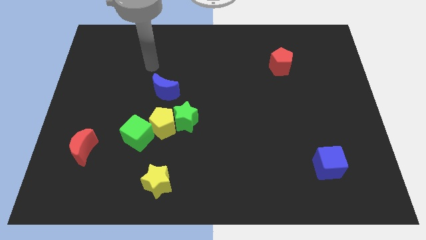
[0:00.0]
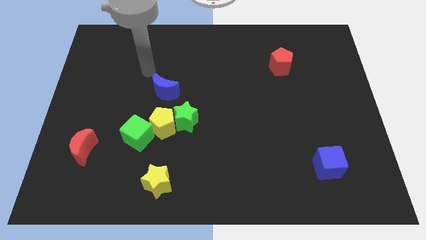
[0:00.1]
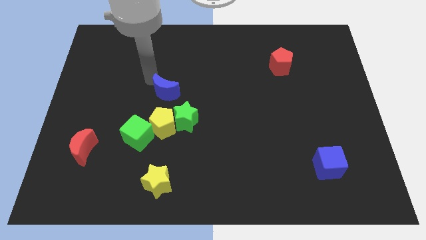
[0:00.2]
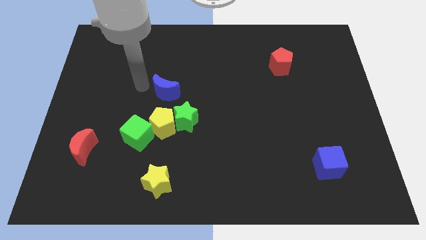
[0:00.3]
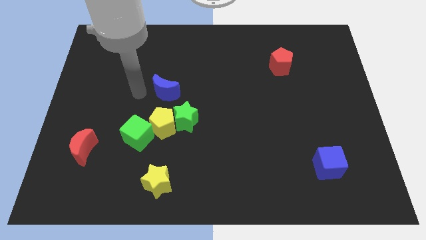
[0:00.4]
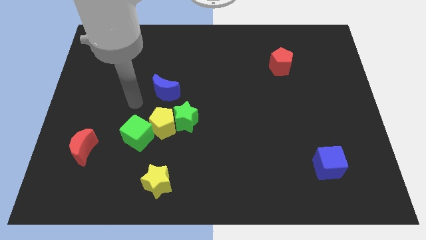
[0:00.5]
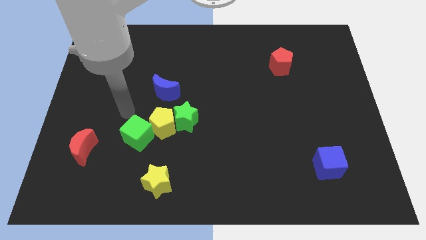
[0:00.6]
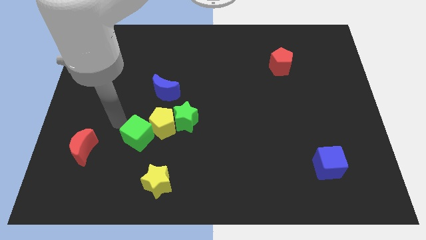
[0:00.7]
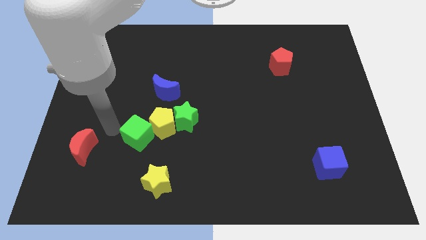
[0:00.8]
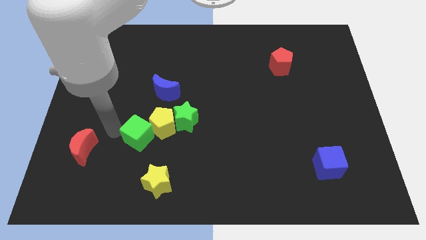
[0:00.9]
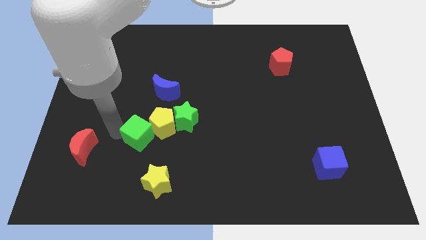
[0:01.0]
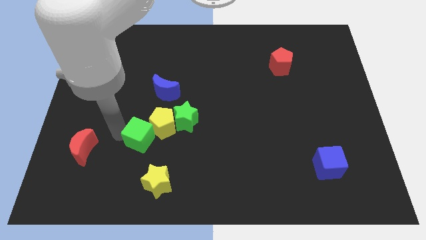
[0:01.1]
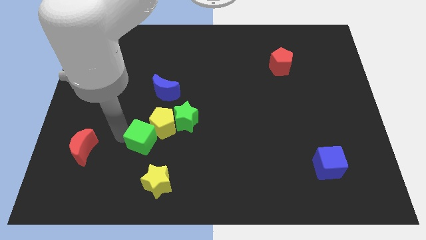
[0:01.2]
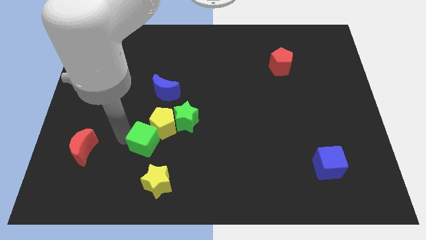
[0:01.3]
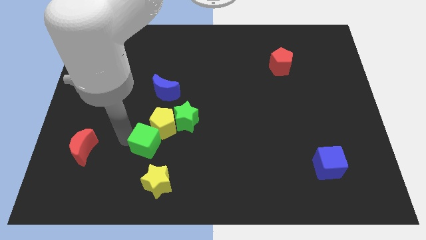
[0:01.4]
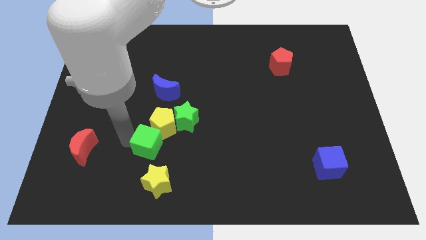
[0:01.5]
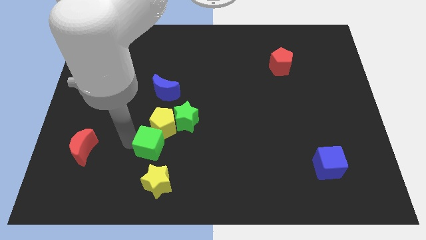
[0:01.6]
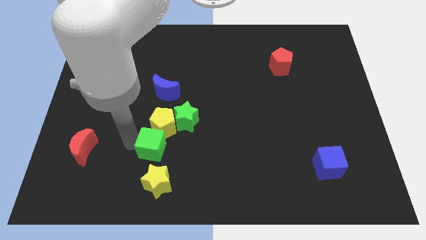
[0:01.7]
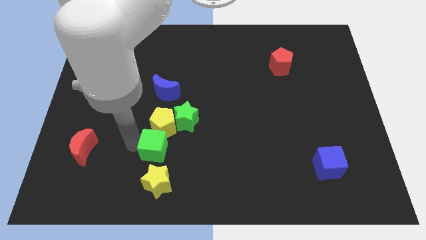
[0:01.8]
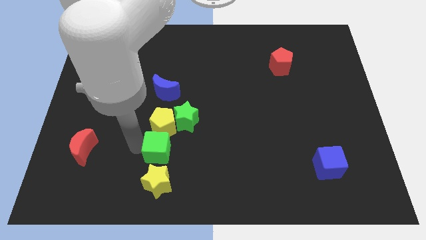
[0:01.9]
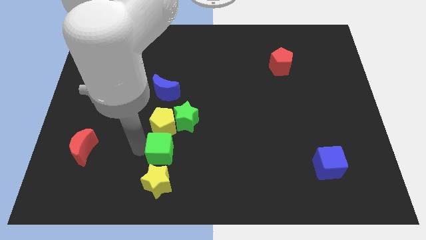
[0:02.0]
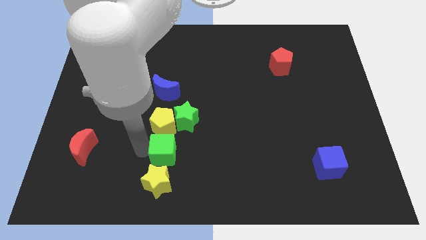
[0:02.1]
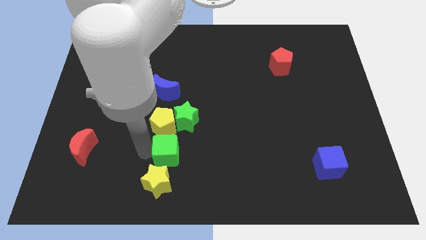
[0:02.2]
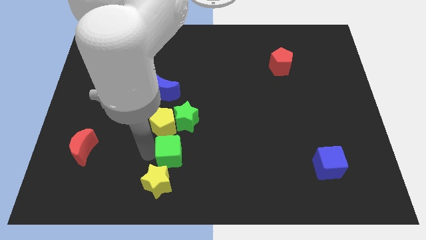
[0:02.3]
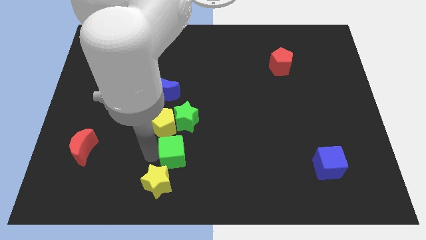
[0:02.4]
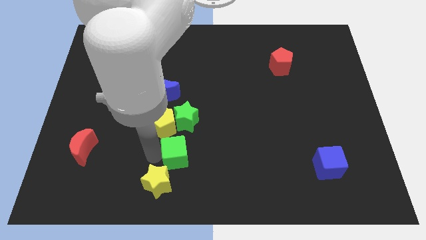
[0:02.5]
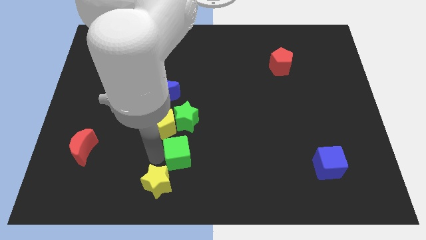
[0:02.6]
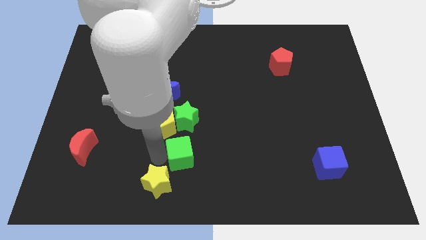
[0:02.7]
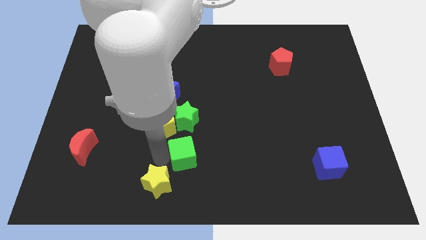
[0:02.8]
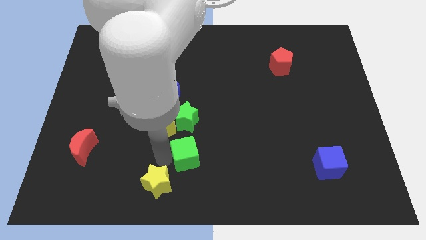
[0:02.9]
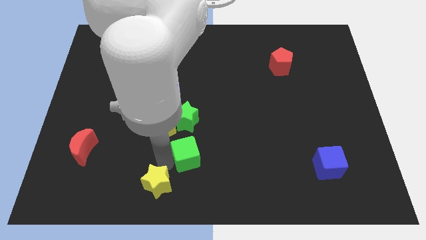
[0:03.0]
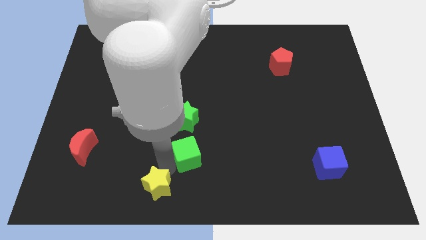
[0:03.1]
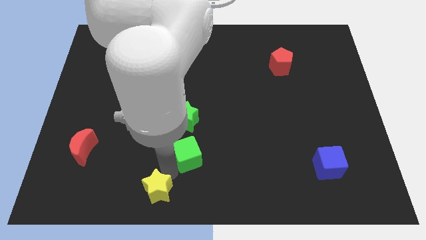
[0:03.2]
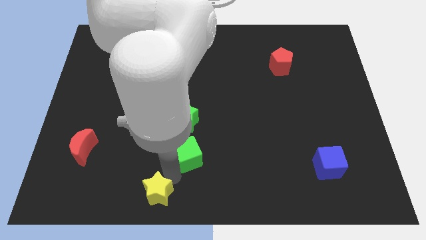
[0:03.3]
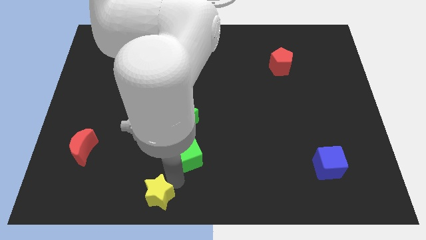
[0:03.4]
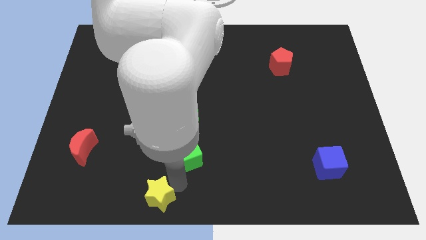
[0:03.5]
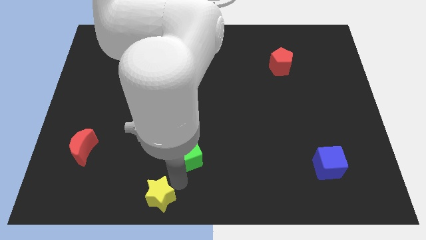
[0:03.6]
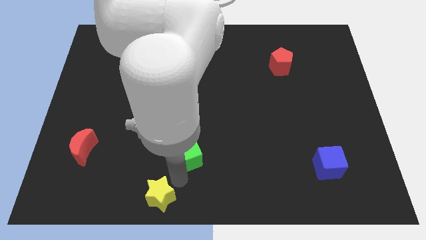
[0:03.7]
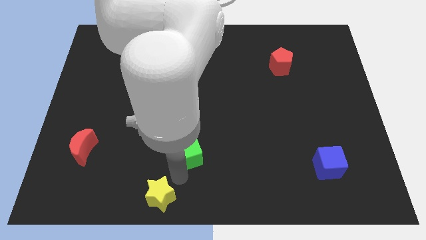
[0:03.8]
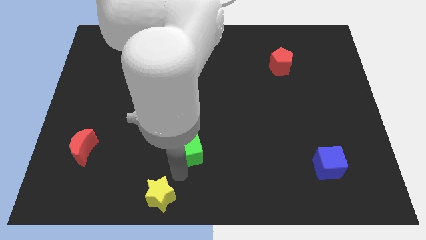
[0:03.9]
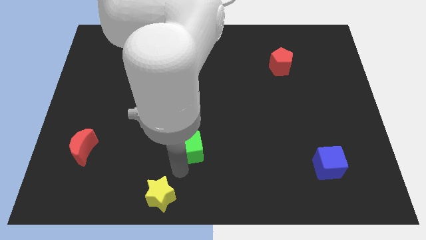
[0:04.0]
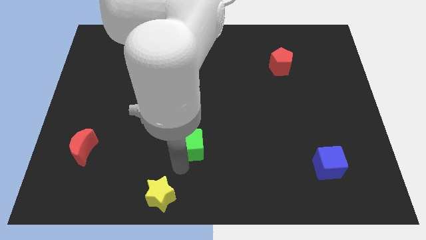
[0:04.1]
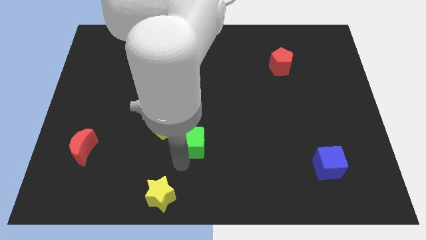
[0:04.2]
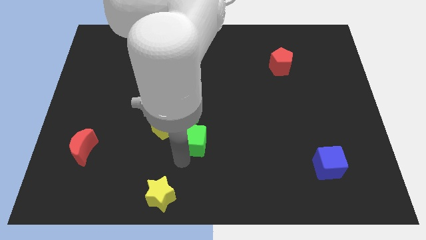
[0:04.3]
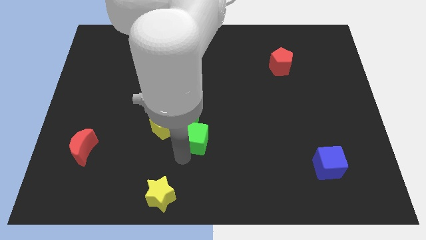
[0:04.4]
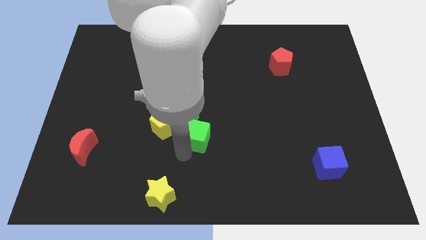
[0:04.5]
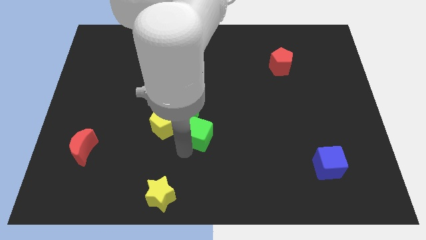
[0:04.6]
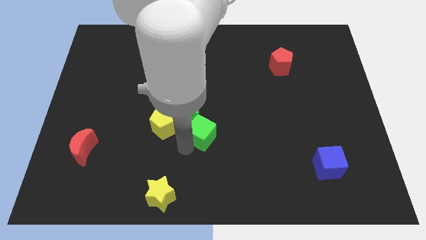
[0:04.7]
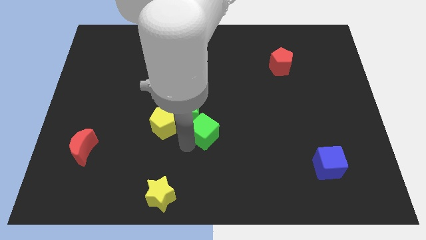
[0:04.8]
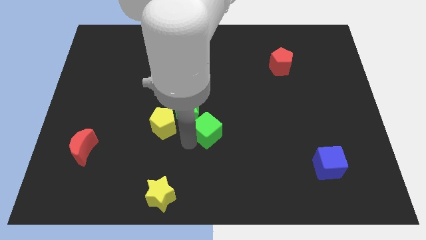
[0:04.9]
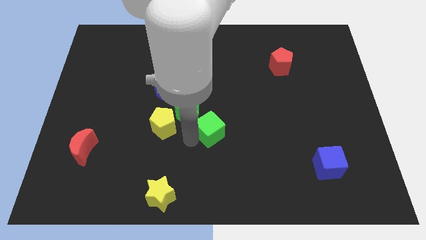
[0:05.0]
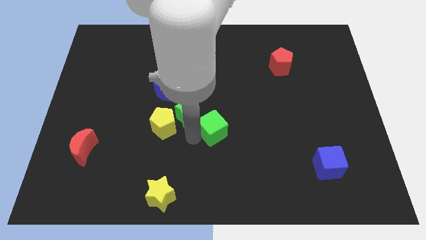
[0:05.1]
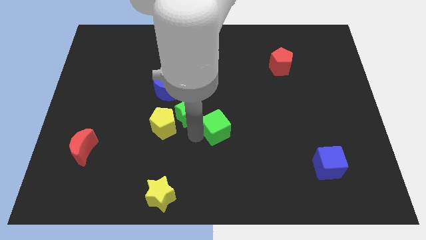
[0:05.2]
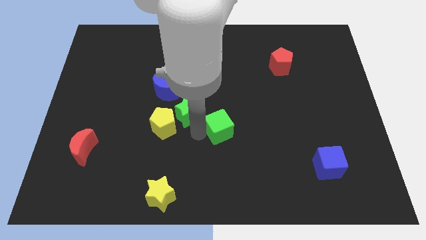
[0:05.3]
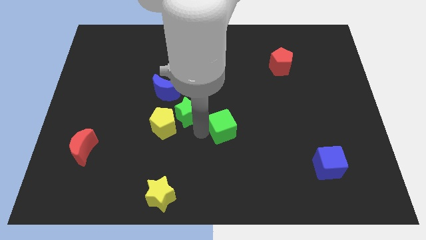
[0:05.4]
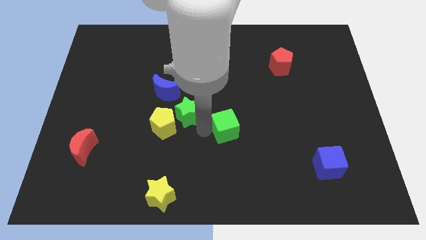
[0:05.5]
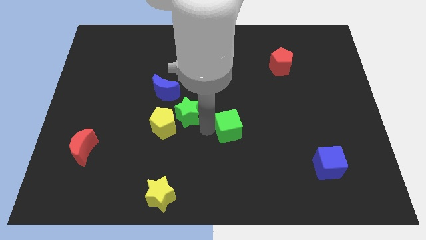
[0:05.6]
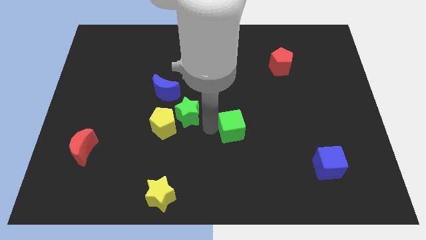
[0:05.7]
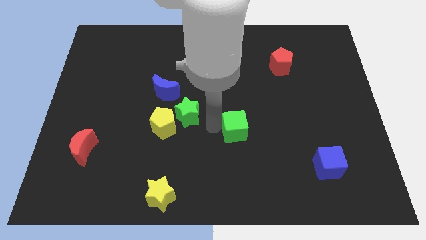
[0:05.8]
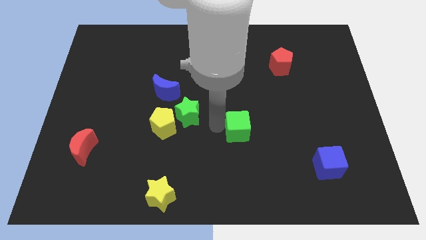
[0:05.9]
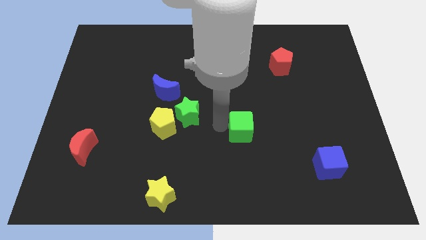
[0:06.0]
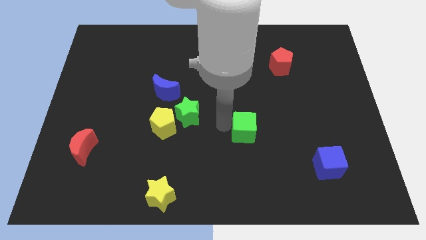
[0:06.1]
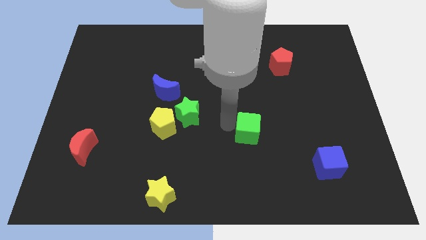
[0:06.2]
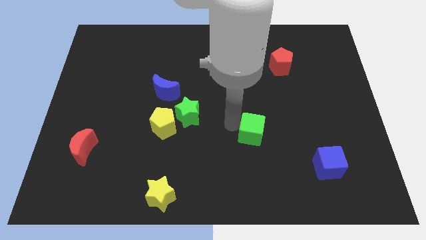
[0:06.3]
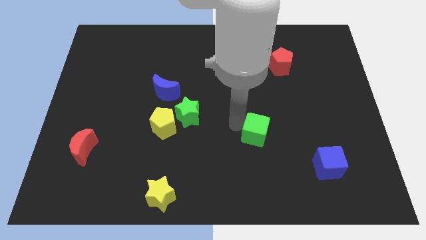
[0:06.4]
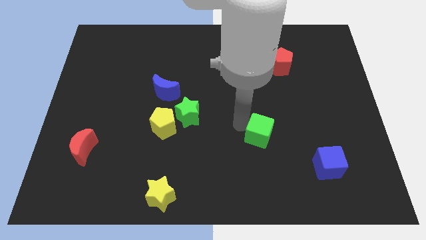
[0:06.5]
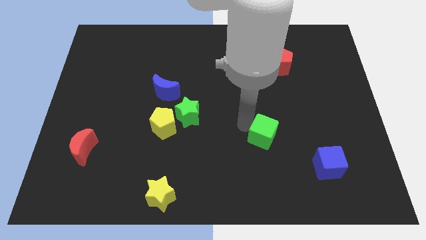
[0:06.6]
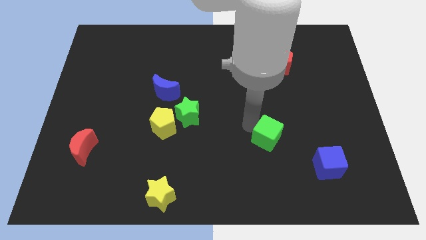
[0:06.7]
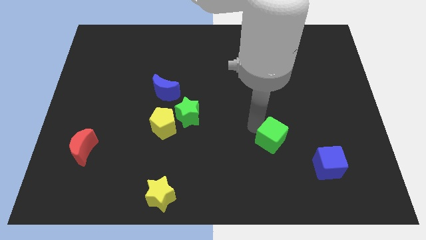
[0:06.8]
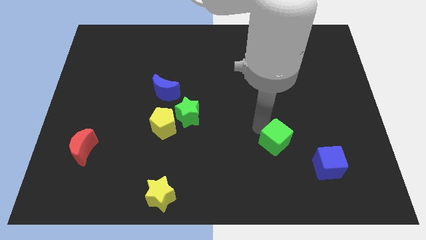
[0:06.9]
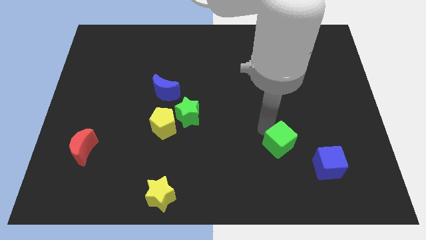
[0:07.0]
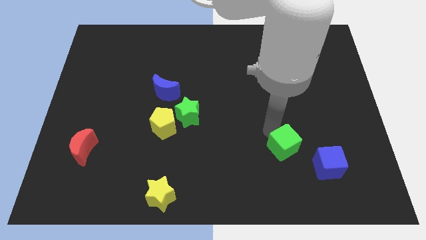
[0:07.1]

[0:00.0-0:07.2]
move the green cube just left of the blue cube

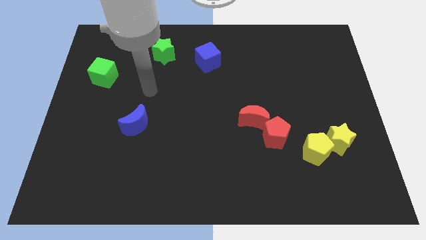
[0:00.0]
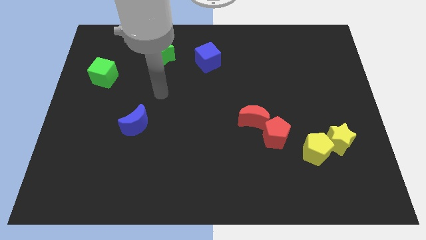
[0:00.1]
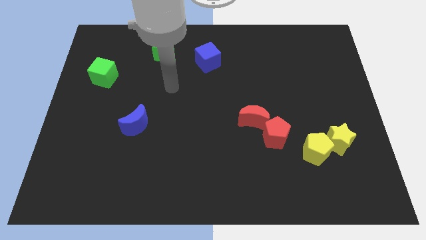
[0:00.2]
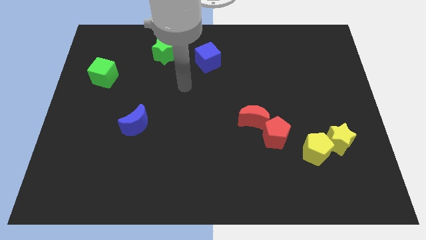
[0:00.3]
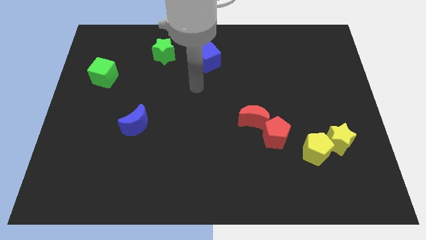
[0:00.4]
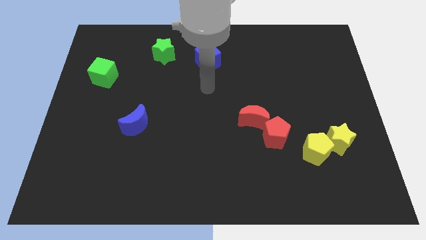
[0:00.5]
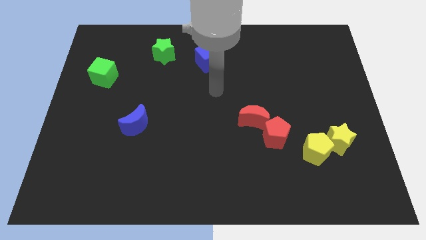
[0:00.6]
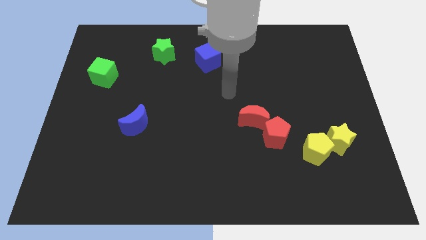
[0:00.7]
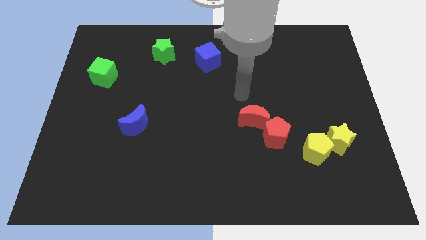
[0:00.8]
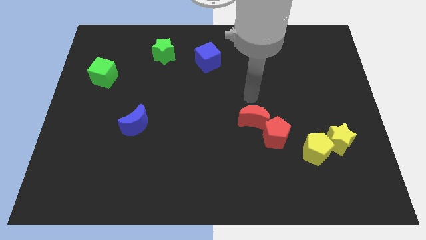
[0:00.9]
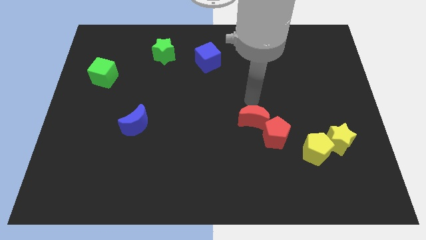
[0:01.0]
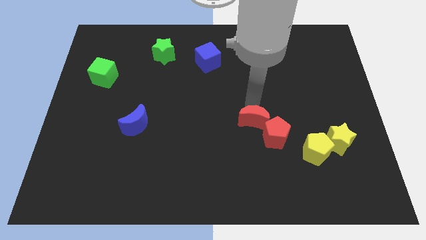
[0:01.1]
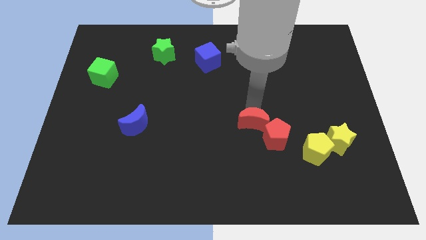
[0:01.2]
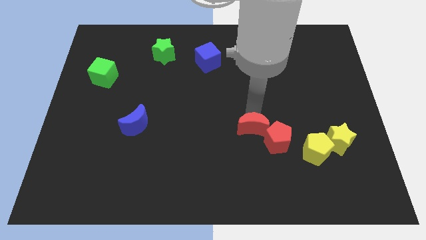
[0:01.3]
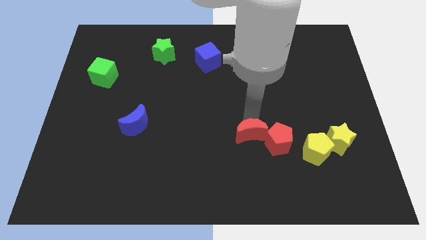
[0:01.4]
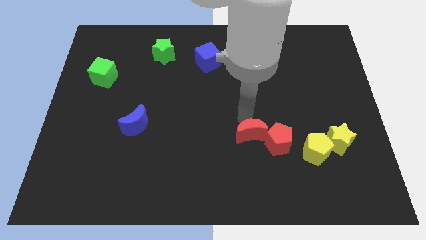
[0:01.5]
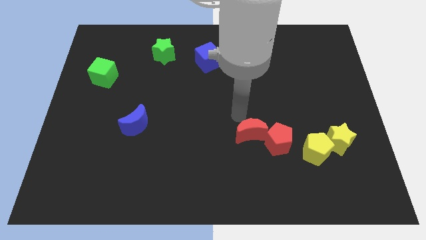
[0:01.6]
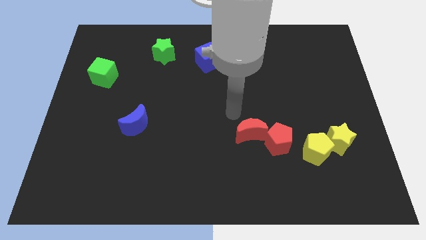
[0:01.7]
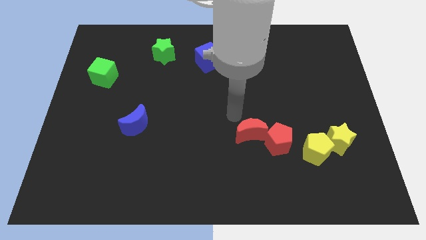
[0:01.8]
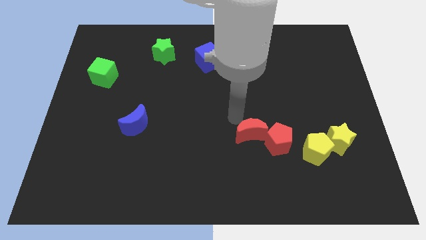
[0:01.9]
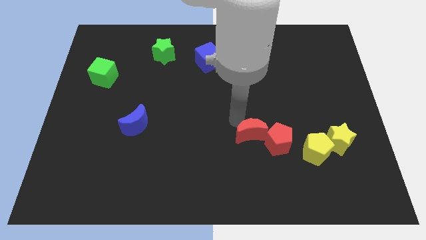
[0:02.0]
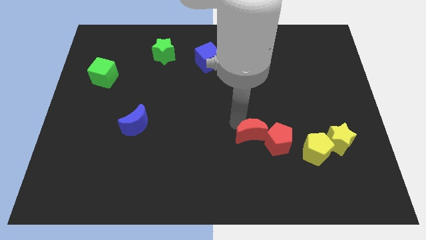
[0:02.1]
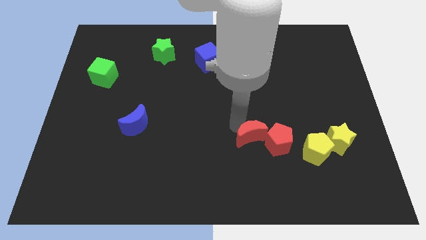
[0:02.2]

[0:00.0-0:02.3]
put the red moon to the left of the yellow pentagon
